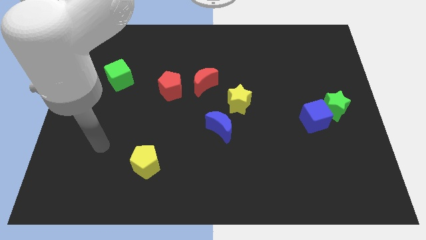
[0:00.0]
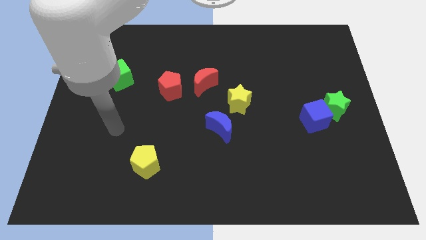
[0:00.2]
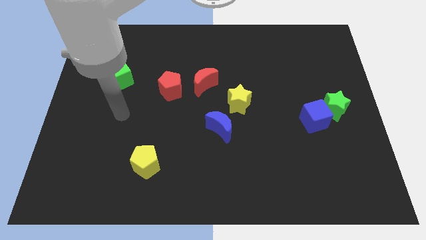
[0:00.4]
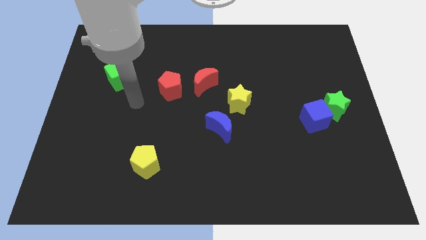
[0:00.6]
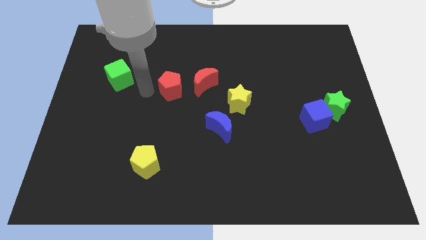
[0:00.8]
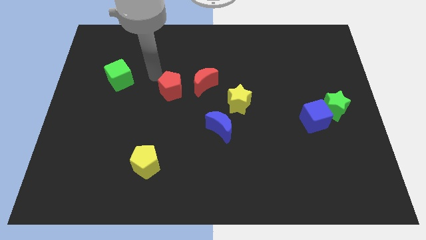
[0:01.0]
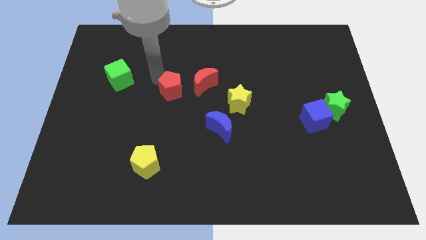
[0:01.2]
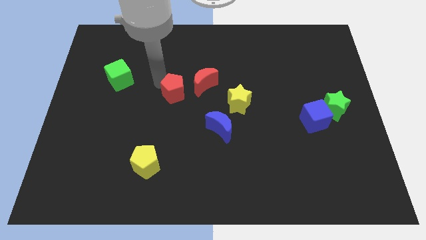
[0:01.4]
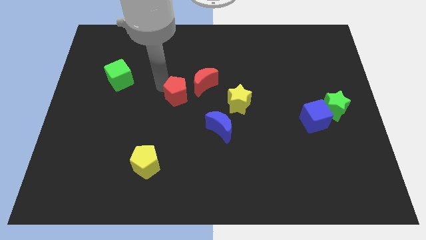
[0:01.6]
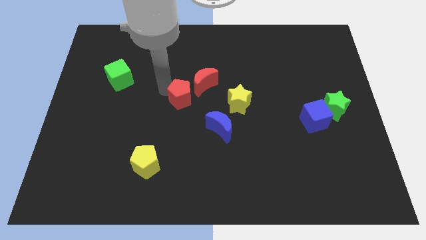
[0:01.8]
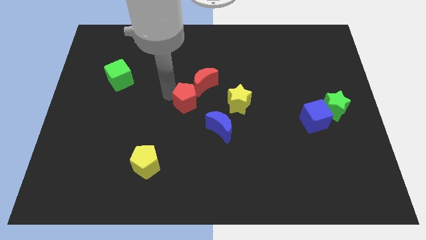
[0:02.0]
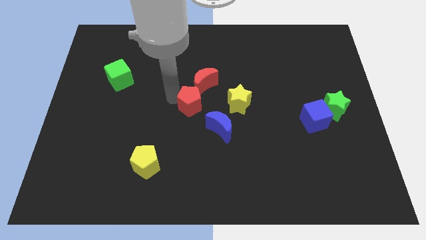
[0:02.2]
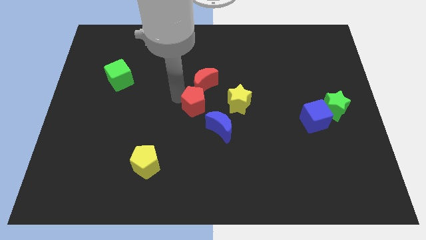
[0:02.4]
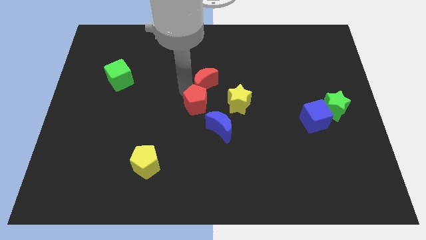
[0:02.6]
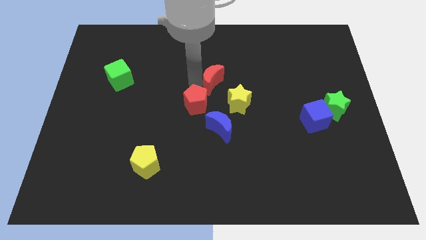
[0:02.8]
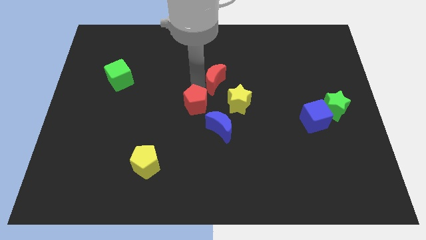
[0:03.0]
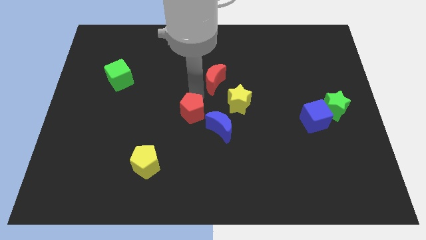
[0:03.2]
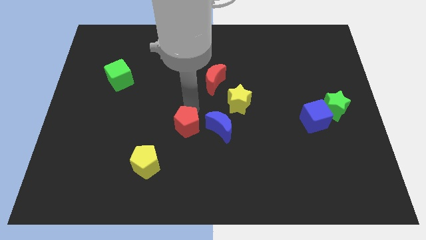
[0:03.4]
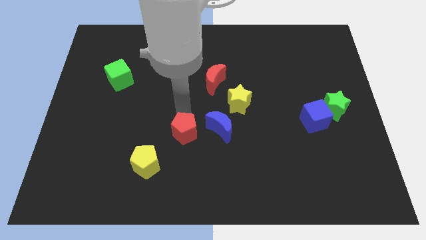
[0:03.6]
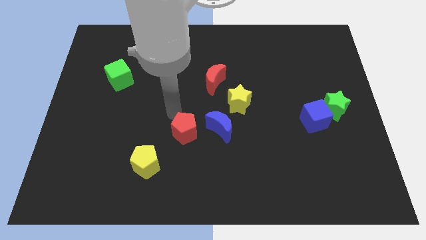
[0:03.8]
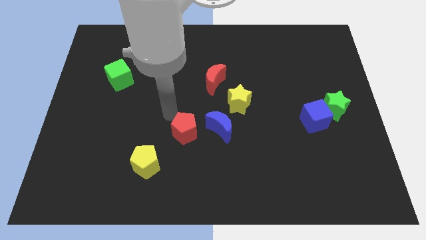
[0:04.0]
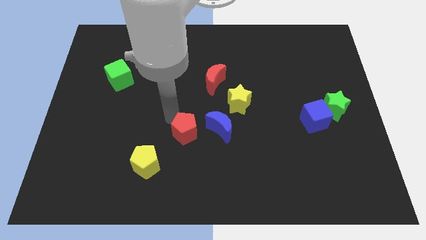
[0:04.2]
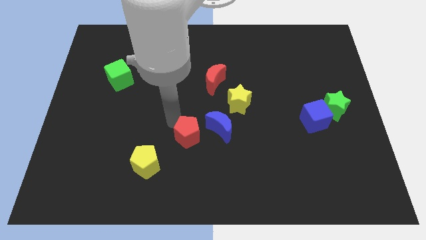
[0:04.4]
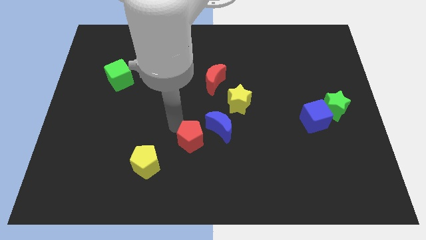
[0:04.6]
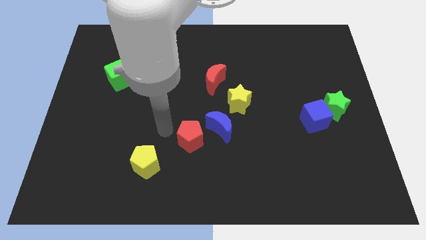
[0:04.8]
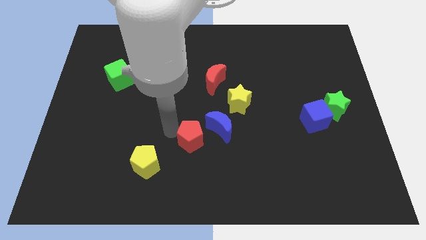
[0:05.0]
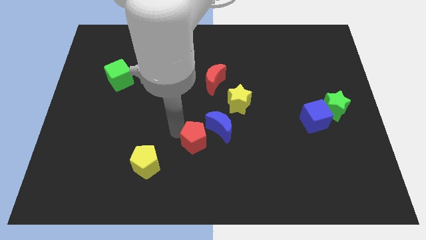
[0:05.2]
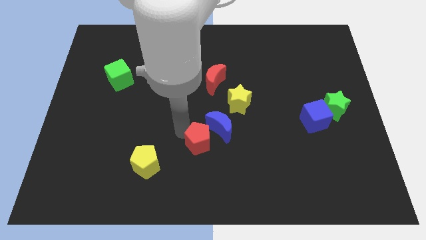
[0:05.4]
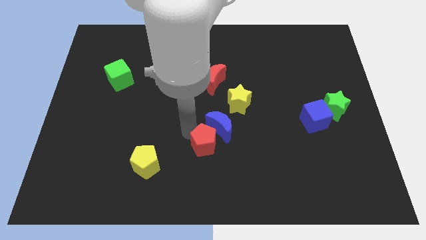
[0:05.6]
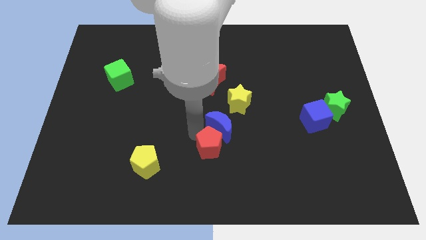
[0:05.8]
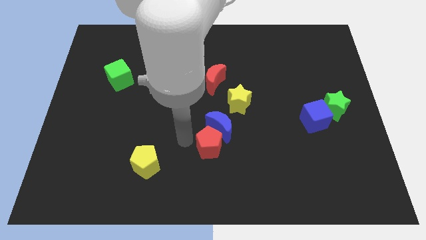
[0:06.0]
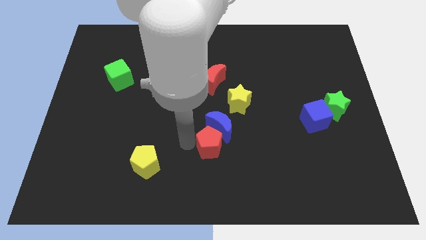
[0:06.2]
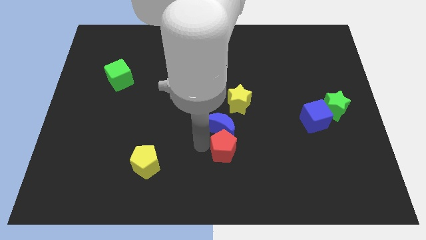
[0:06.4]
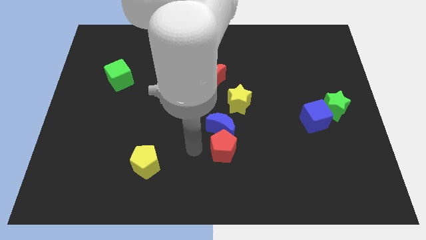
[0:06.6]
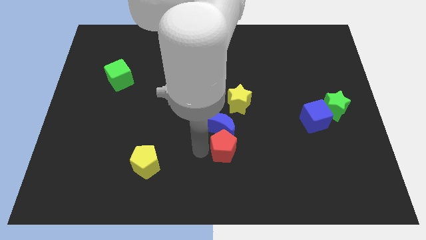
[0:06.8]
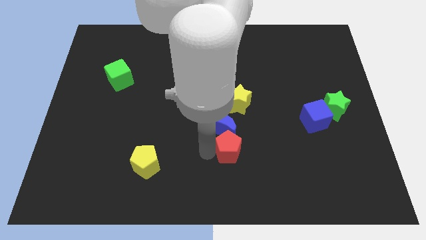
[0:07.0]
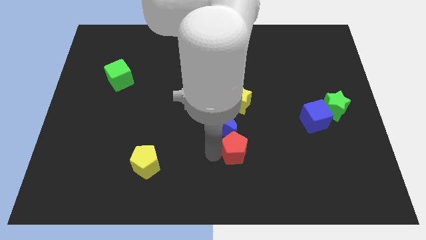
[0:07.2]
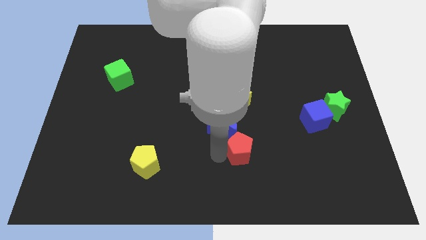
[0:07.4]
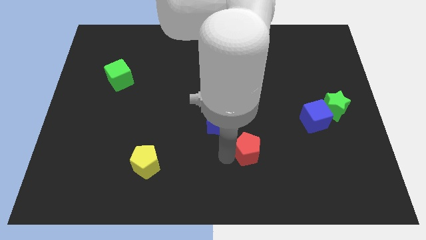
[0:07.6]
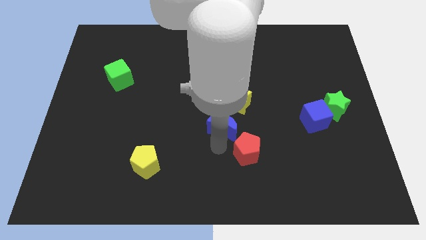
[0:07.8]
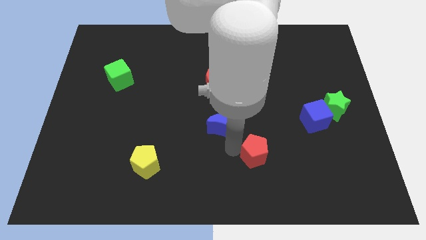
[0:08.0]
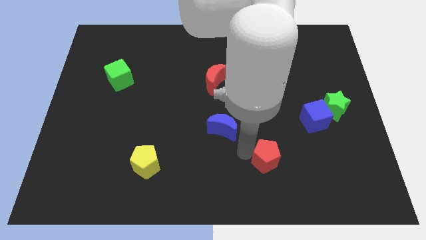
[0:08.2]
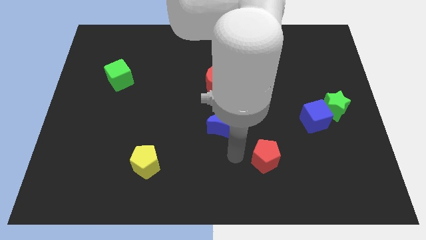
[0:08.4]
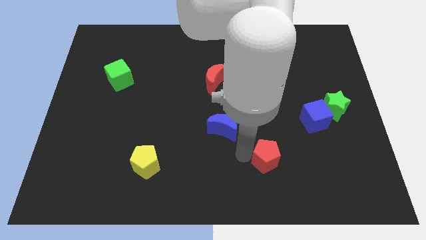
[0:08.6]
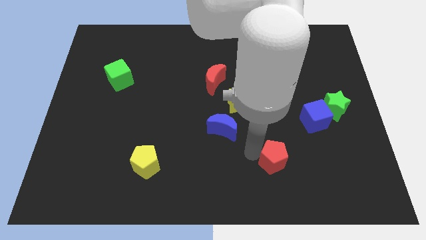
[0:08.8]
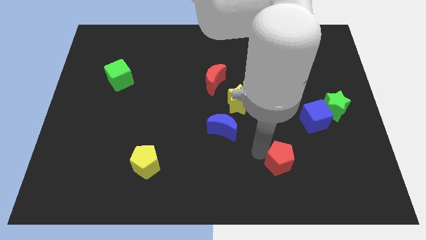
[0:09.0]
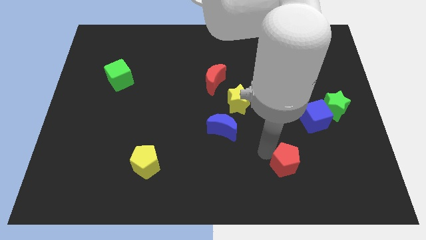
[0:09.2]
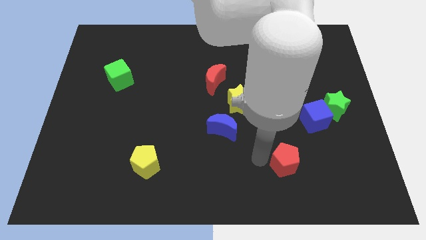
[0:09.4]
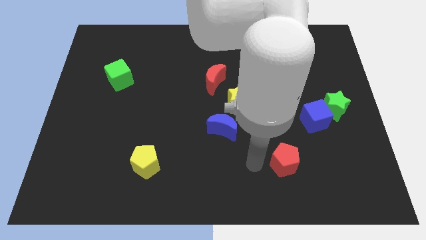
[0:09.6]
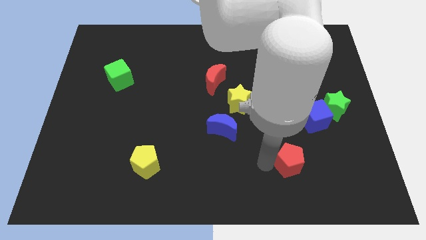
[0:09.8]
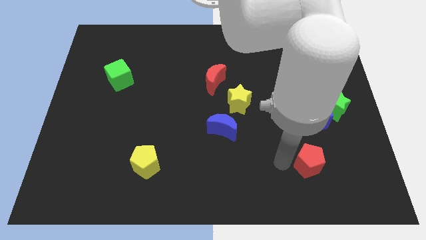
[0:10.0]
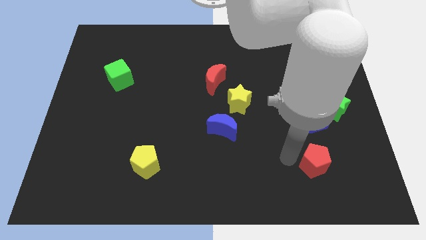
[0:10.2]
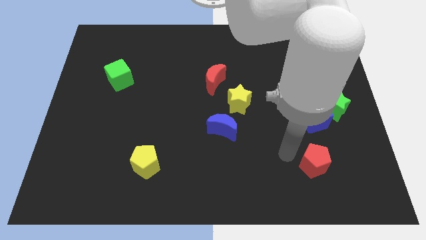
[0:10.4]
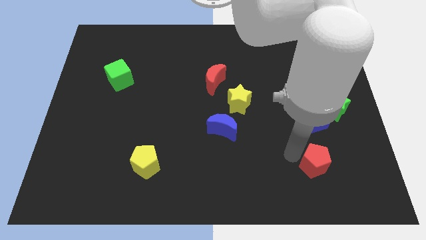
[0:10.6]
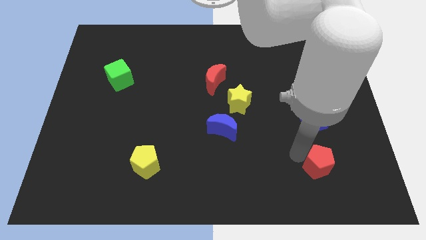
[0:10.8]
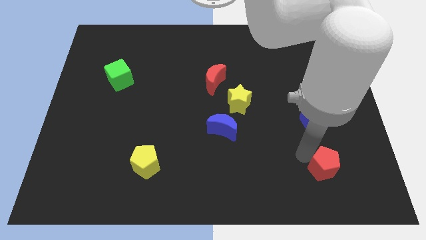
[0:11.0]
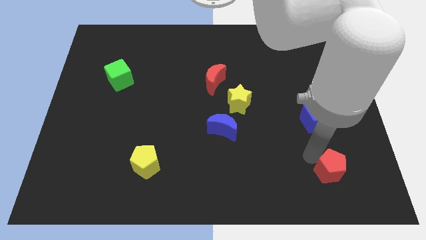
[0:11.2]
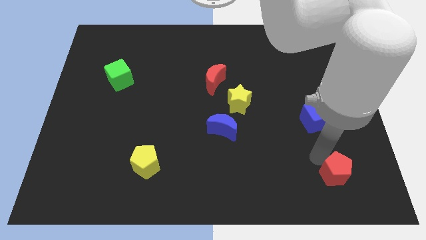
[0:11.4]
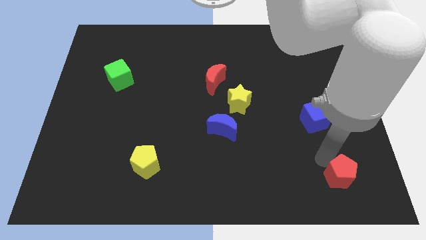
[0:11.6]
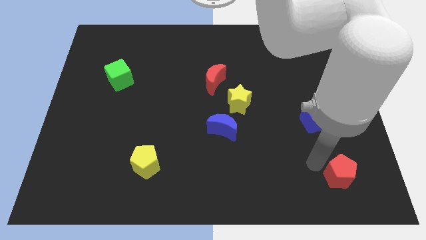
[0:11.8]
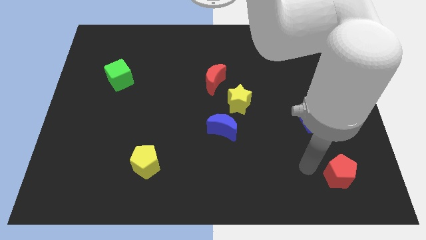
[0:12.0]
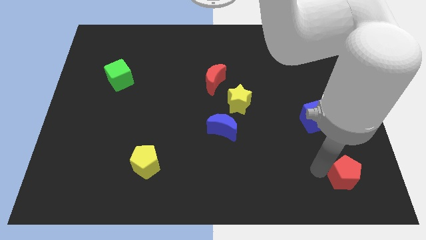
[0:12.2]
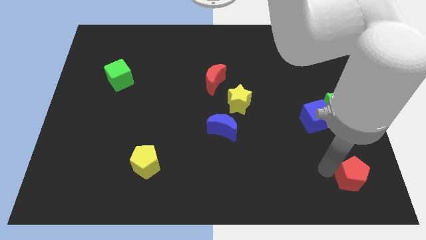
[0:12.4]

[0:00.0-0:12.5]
move the red pentagon to the bottom right of the board
